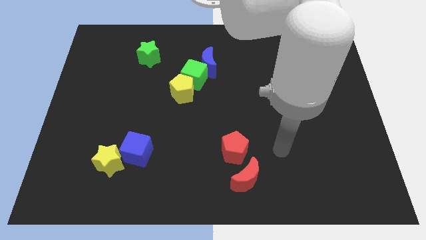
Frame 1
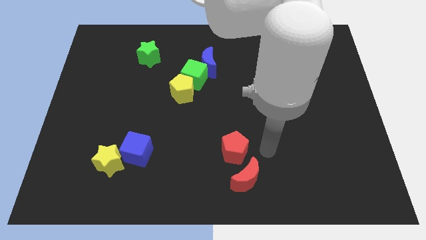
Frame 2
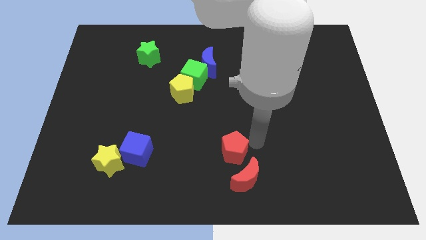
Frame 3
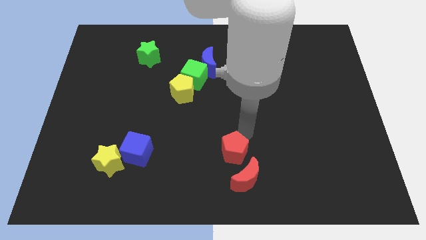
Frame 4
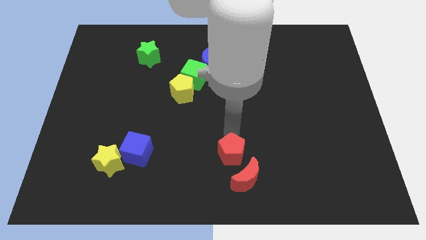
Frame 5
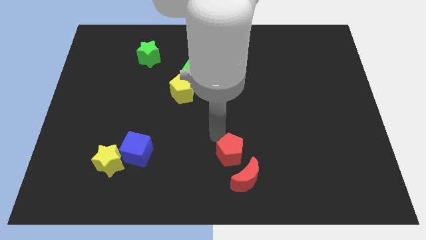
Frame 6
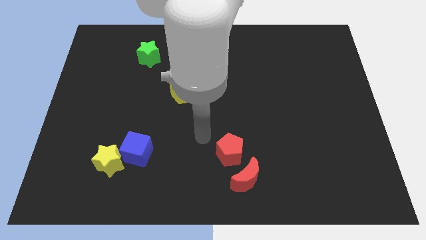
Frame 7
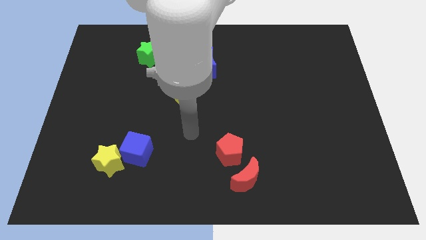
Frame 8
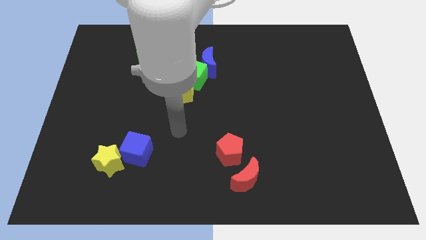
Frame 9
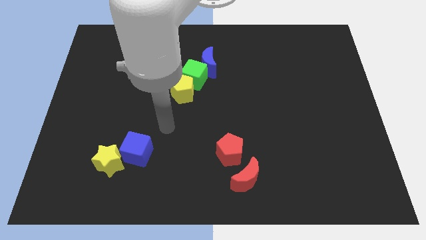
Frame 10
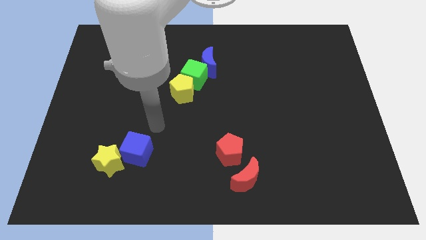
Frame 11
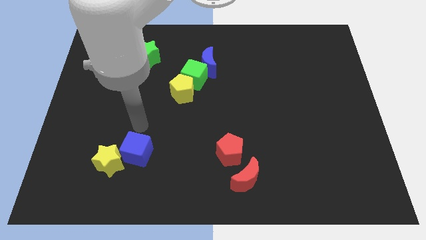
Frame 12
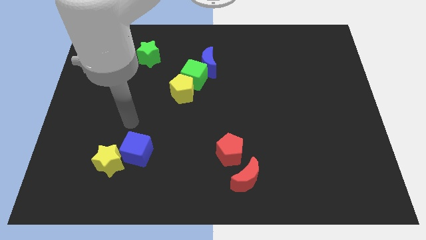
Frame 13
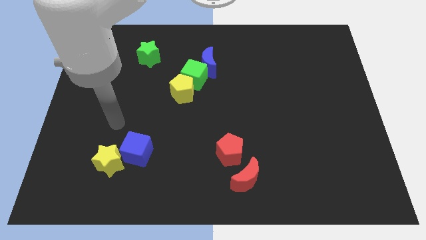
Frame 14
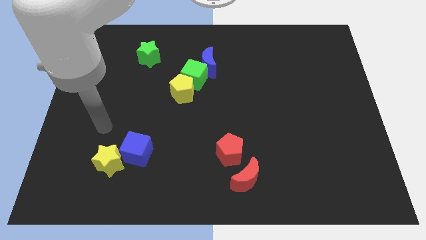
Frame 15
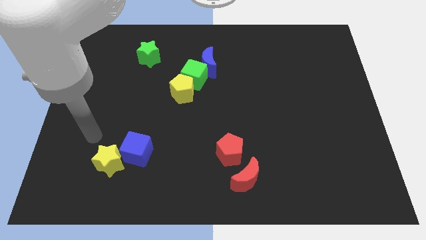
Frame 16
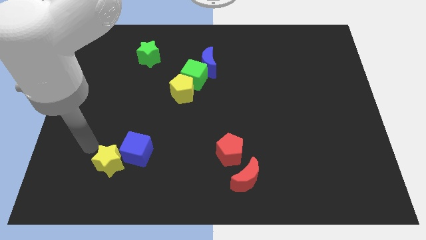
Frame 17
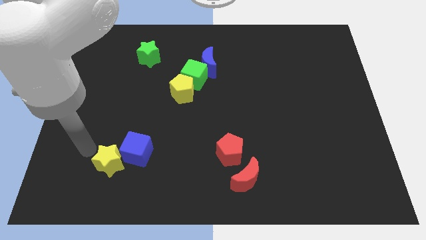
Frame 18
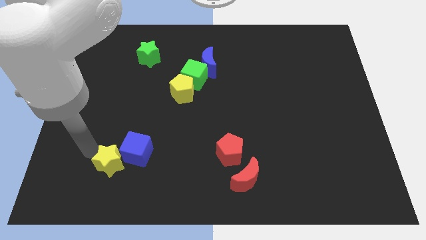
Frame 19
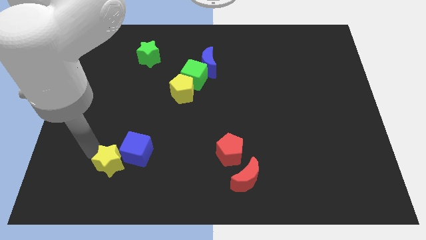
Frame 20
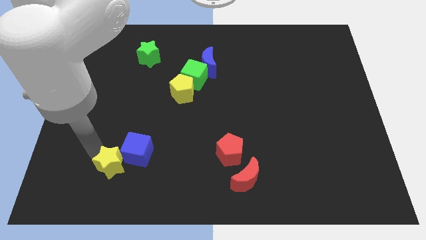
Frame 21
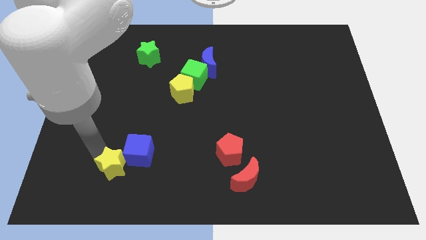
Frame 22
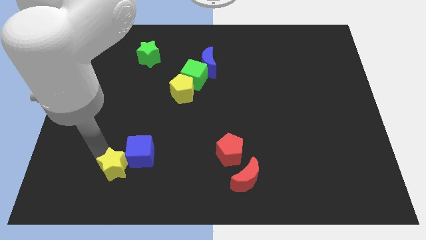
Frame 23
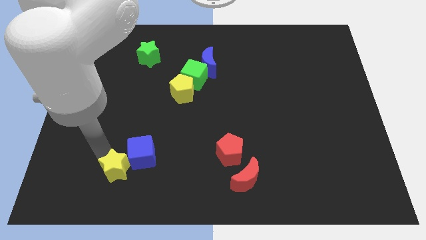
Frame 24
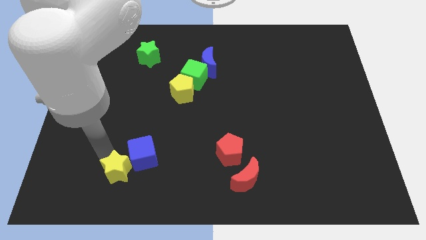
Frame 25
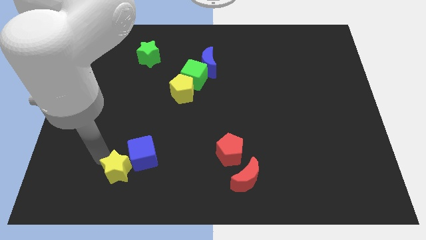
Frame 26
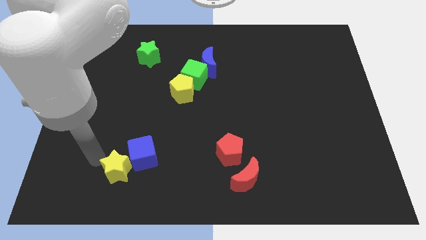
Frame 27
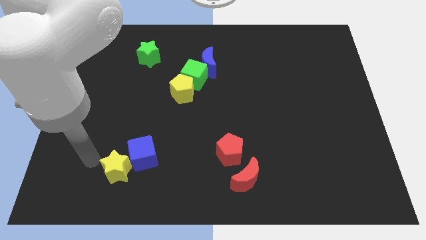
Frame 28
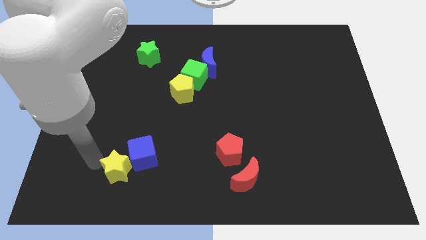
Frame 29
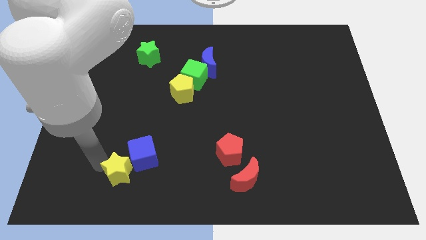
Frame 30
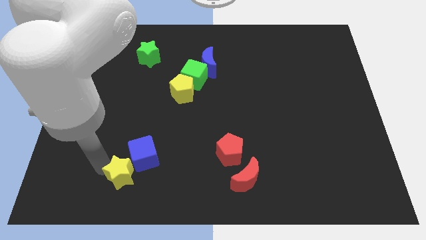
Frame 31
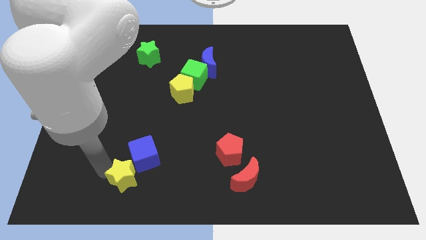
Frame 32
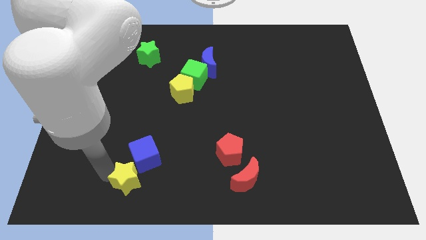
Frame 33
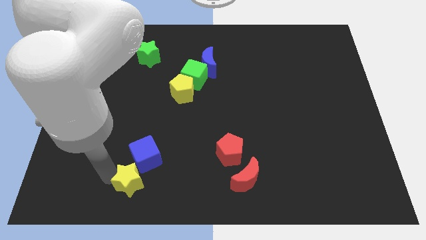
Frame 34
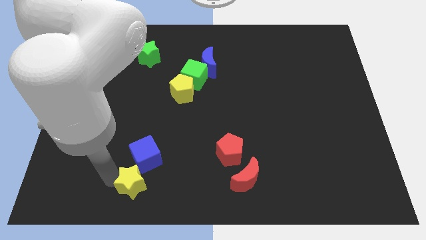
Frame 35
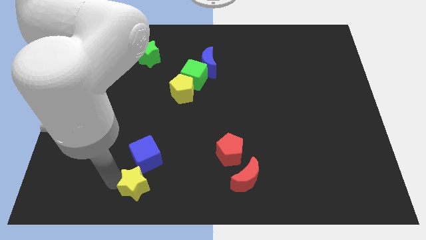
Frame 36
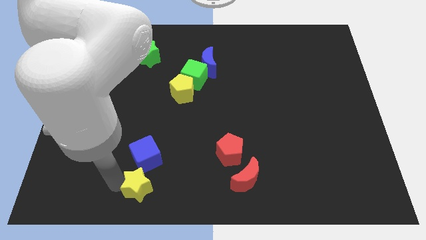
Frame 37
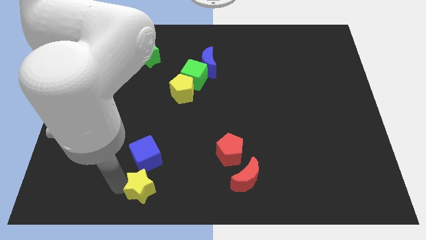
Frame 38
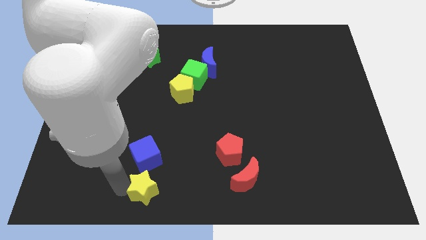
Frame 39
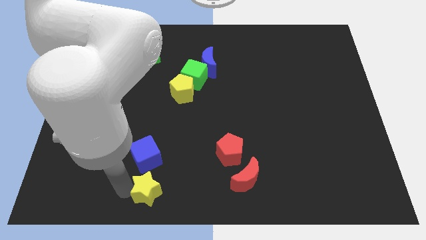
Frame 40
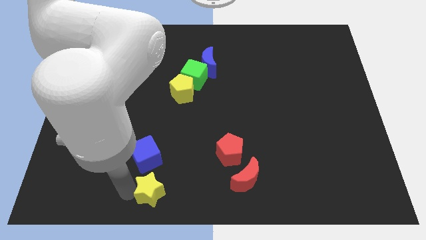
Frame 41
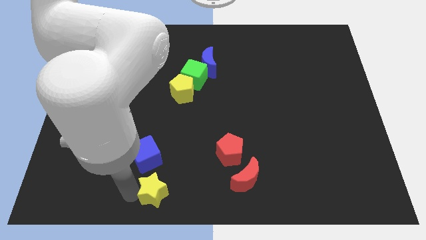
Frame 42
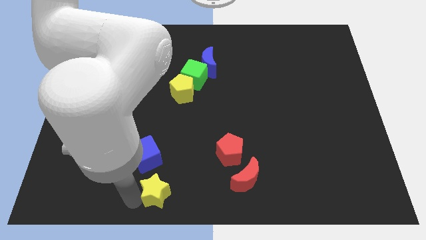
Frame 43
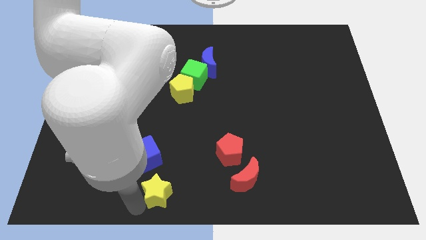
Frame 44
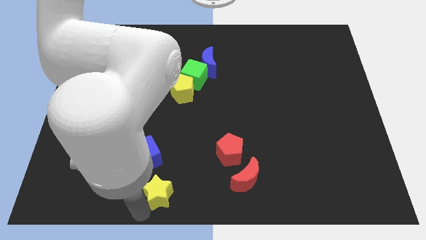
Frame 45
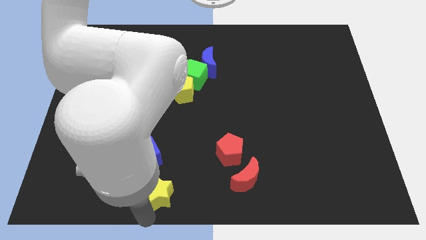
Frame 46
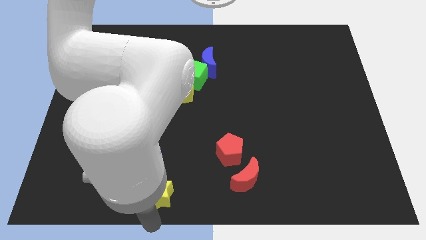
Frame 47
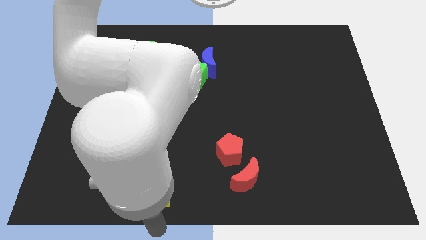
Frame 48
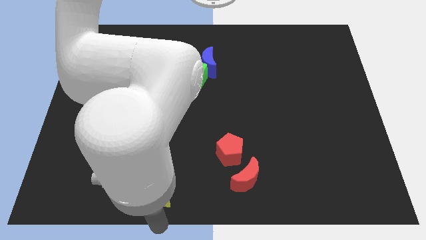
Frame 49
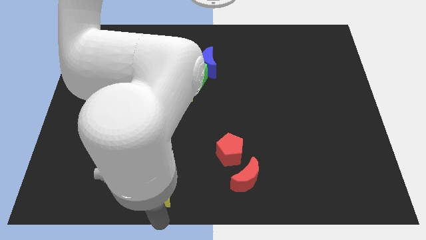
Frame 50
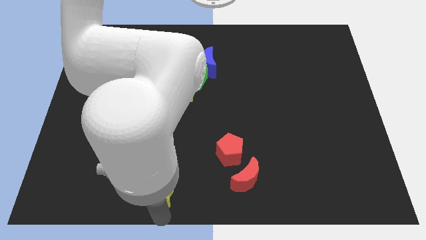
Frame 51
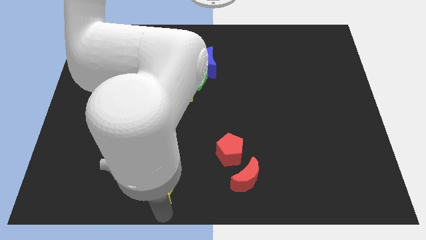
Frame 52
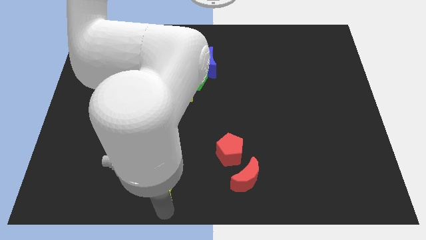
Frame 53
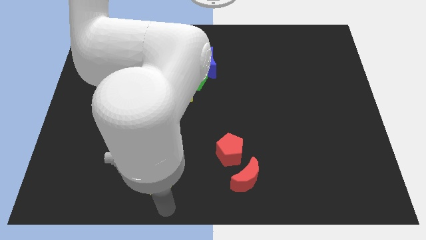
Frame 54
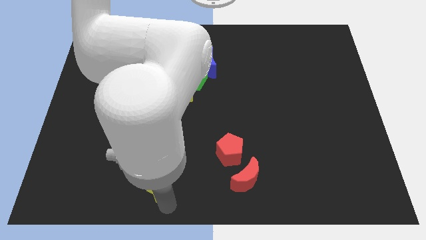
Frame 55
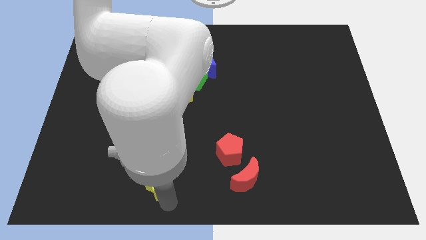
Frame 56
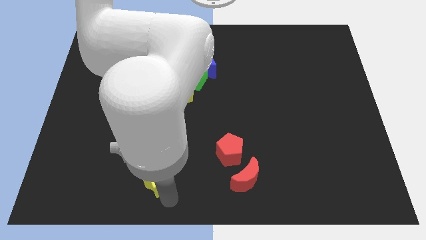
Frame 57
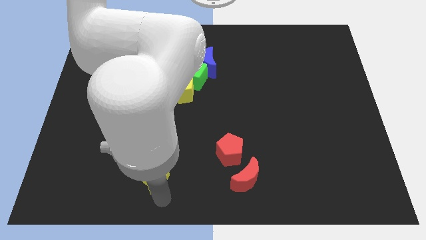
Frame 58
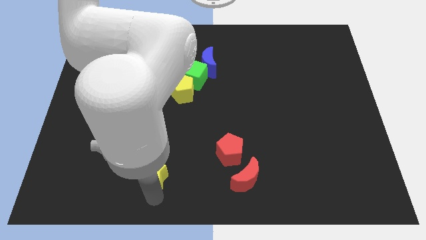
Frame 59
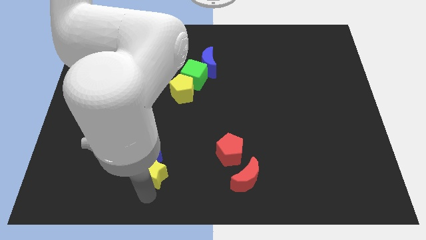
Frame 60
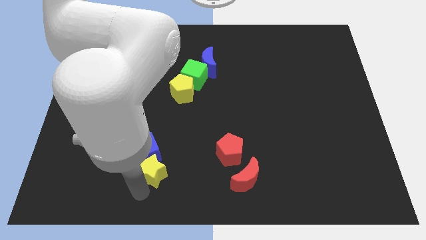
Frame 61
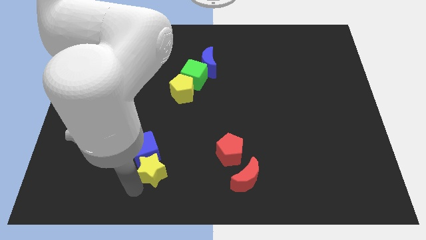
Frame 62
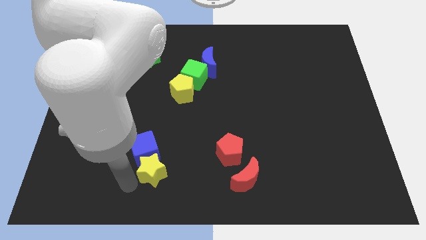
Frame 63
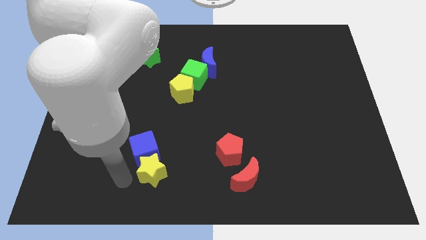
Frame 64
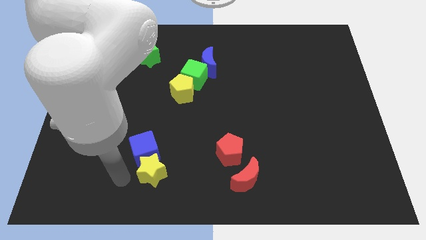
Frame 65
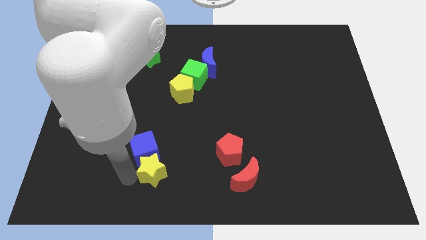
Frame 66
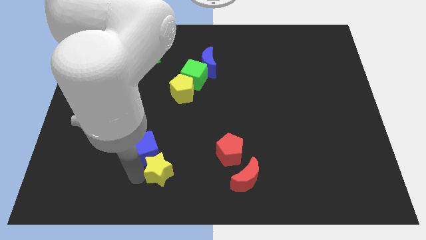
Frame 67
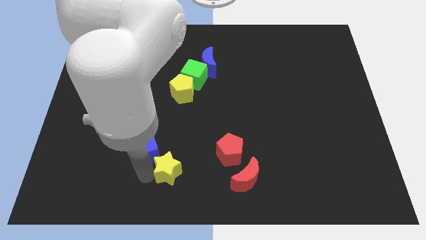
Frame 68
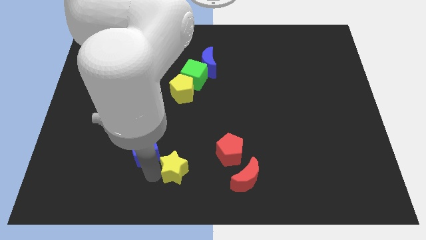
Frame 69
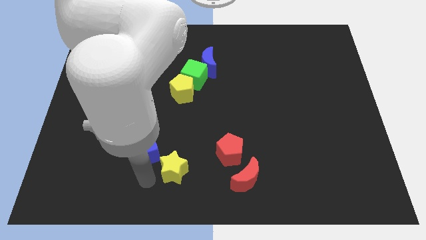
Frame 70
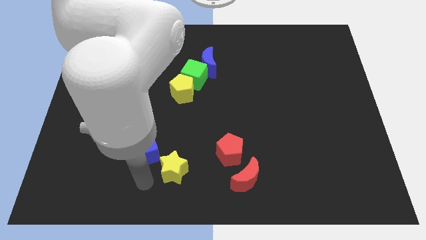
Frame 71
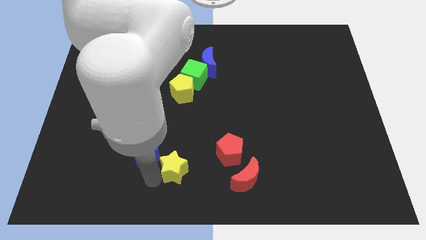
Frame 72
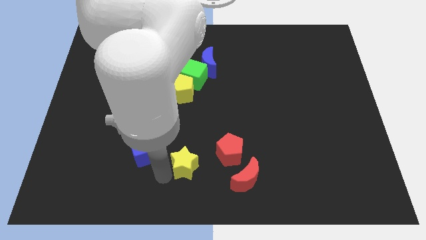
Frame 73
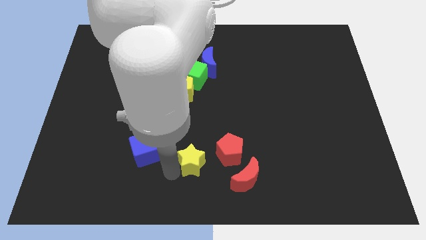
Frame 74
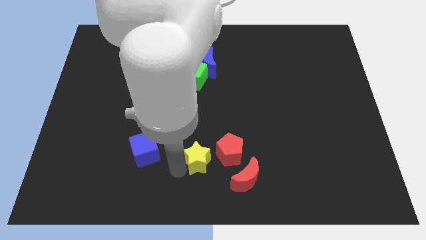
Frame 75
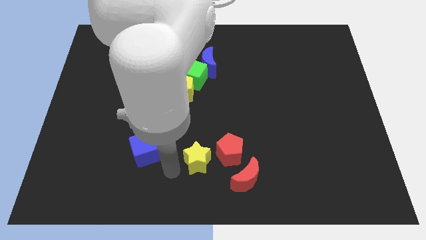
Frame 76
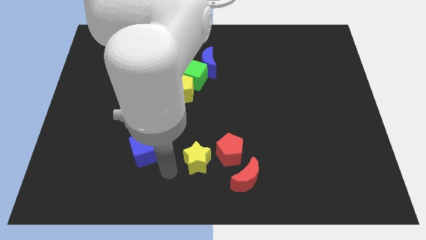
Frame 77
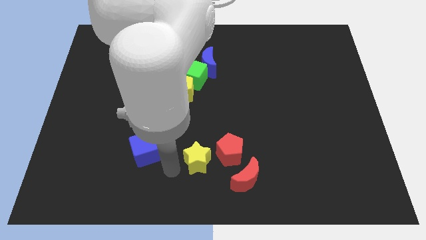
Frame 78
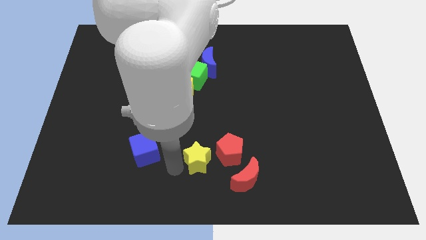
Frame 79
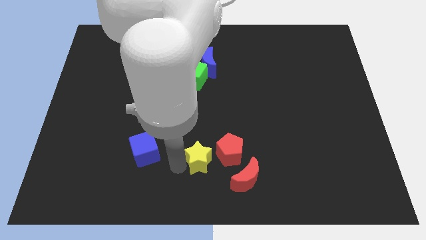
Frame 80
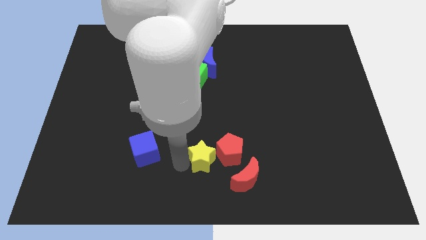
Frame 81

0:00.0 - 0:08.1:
move the yellow star close to the red pentagon
